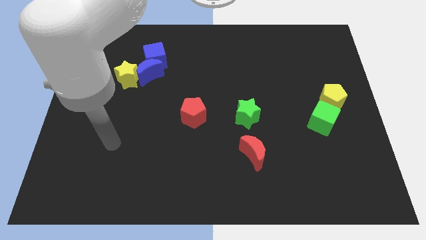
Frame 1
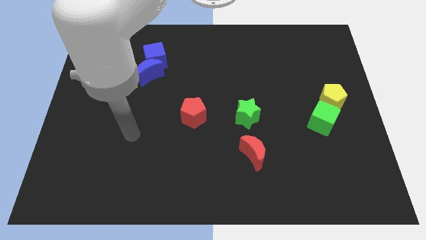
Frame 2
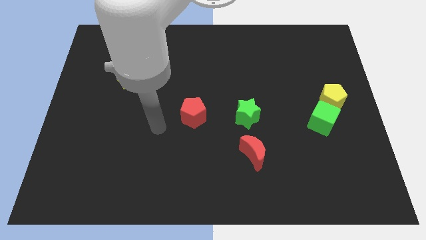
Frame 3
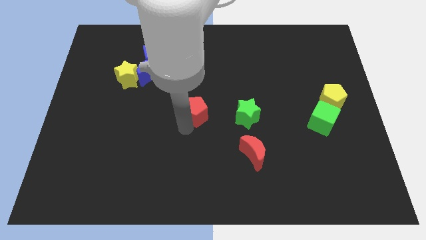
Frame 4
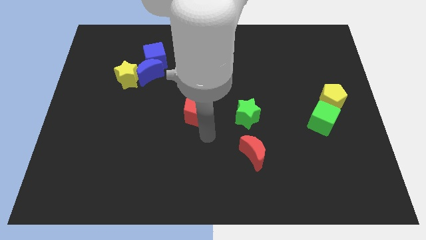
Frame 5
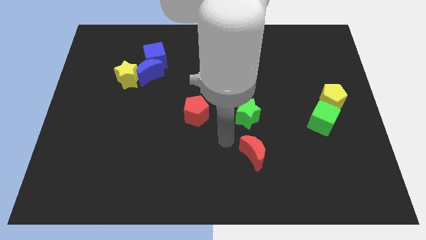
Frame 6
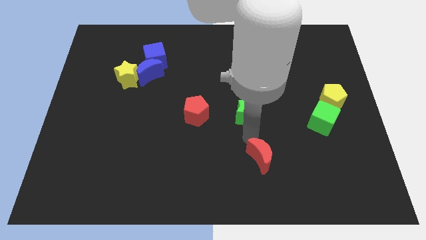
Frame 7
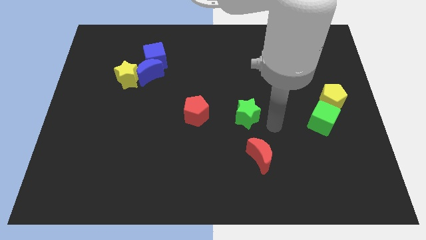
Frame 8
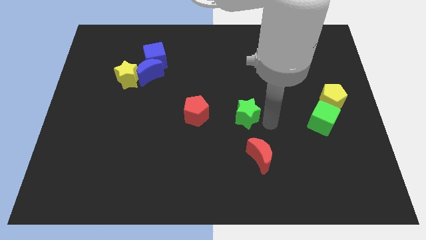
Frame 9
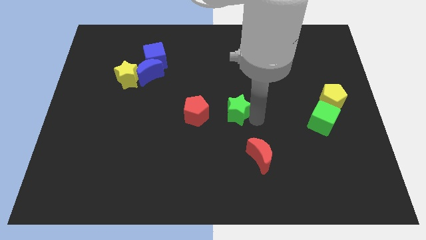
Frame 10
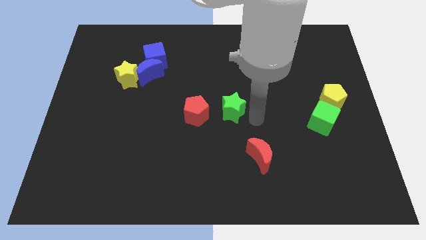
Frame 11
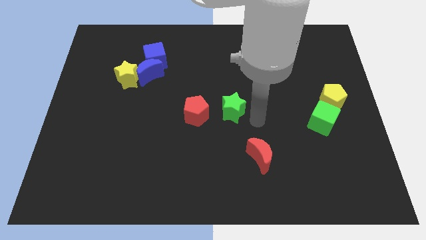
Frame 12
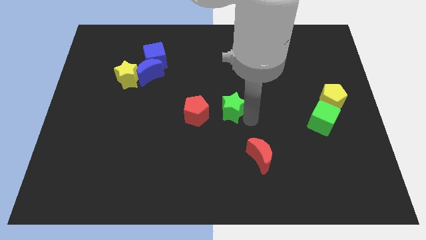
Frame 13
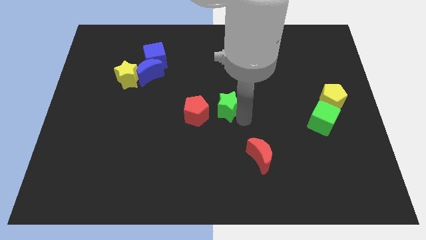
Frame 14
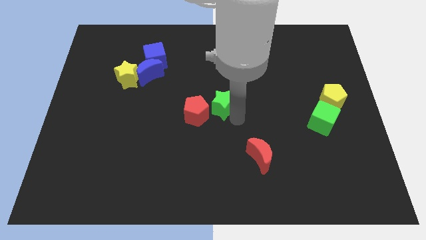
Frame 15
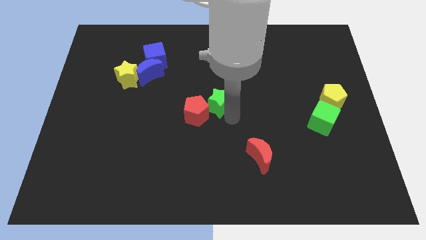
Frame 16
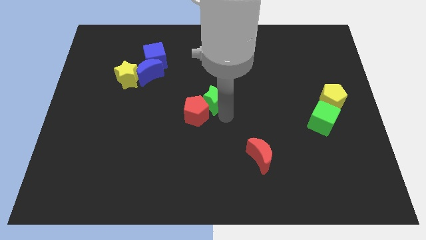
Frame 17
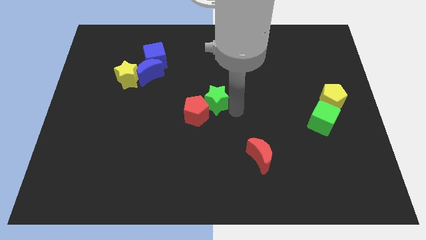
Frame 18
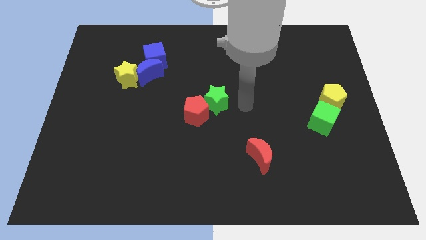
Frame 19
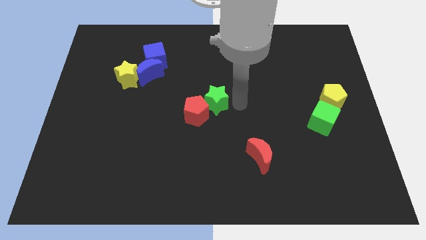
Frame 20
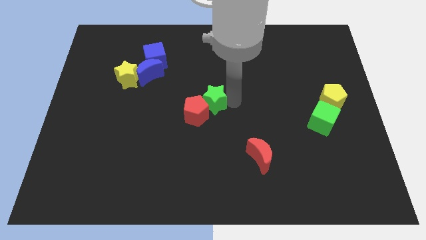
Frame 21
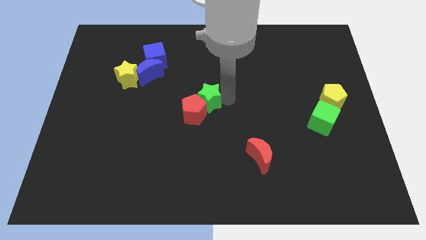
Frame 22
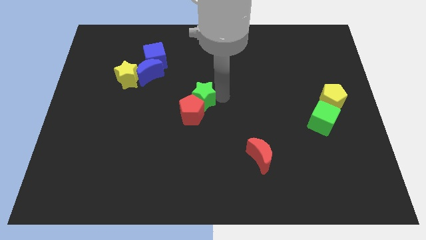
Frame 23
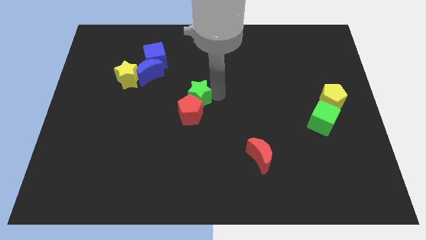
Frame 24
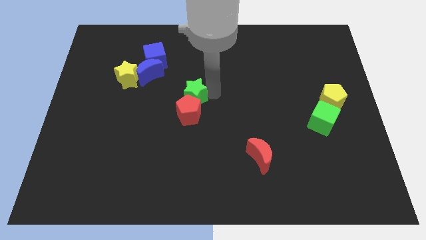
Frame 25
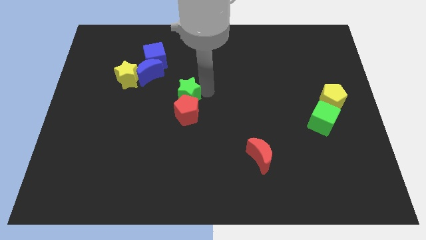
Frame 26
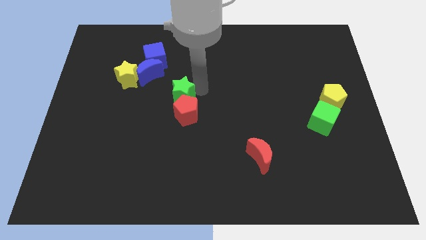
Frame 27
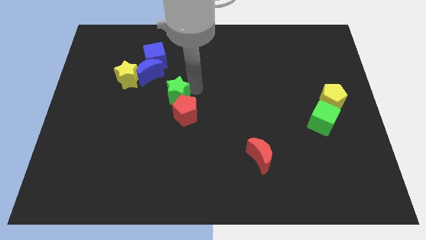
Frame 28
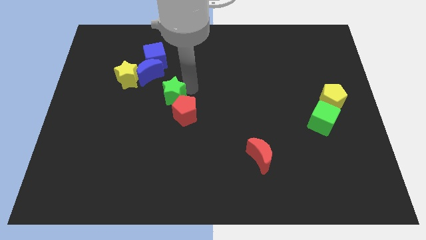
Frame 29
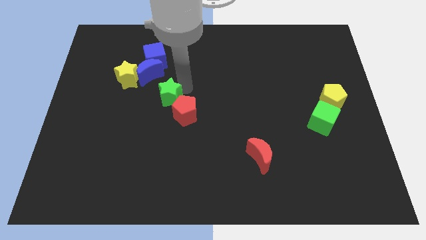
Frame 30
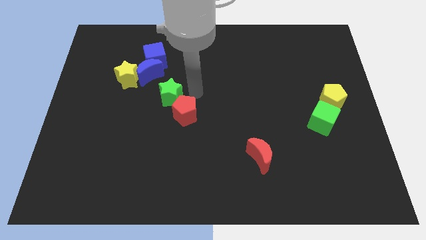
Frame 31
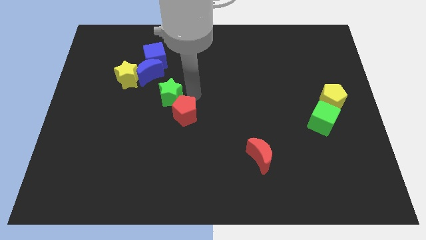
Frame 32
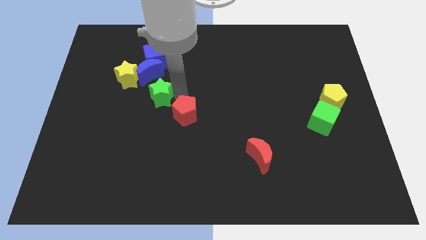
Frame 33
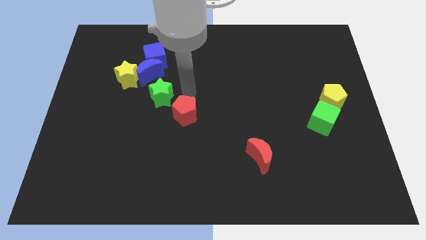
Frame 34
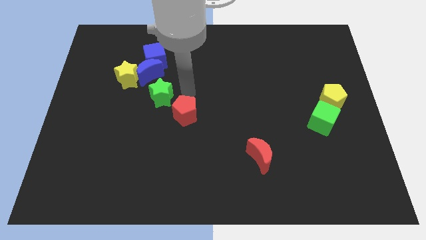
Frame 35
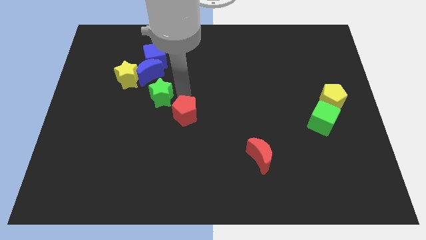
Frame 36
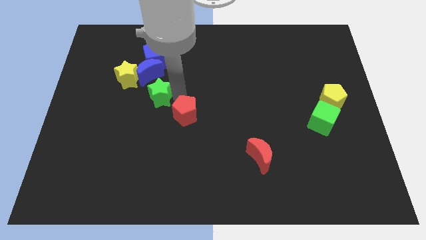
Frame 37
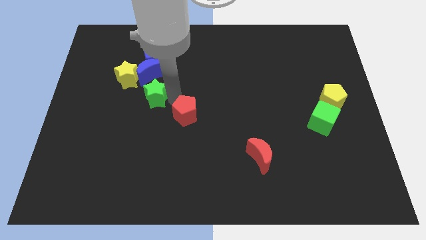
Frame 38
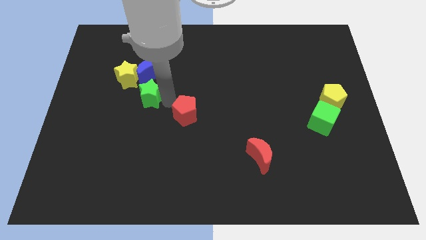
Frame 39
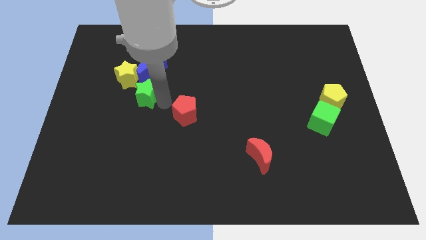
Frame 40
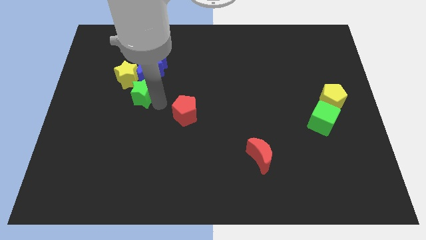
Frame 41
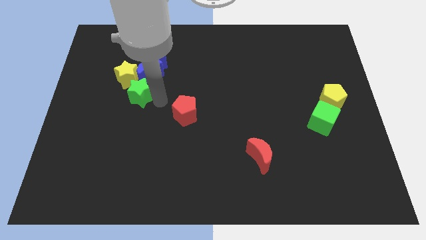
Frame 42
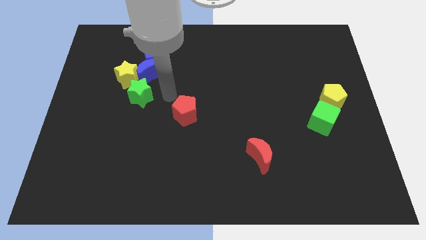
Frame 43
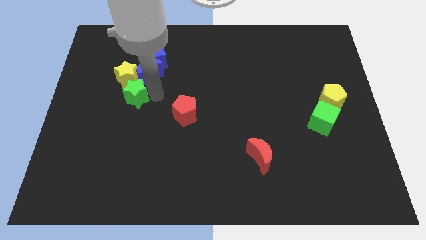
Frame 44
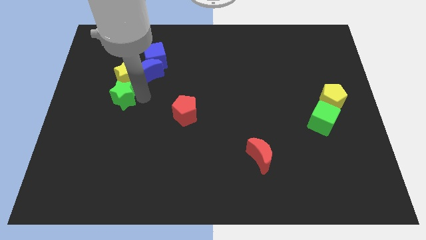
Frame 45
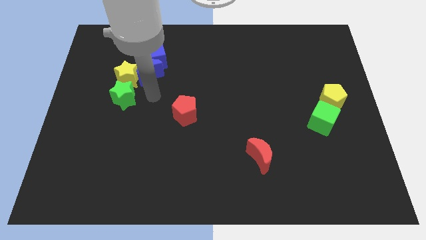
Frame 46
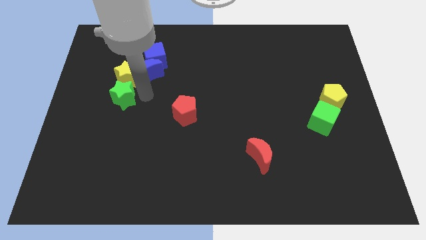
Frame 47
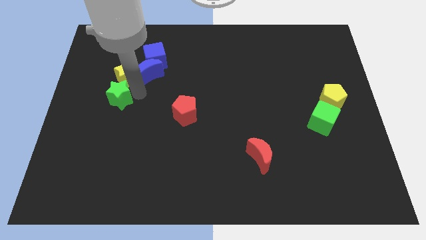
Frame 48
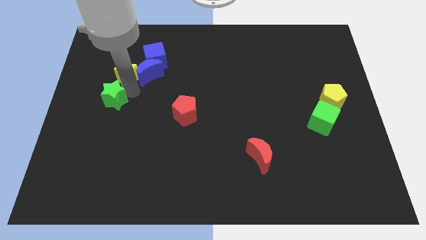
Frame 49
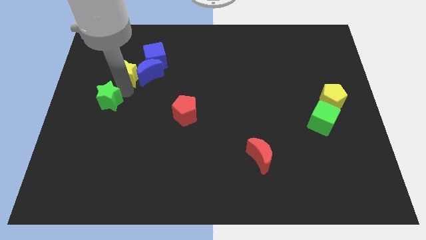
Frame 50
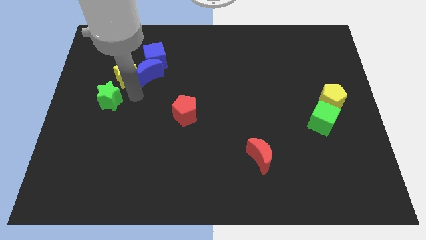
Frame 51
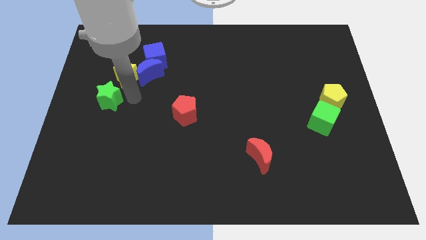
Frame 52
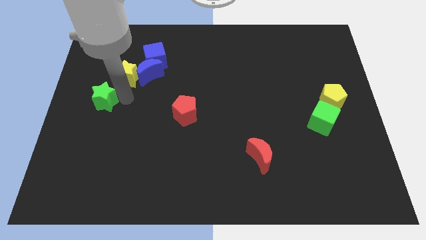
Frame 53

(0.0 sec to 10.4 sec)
move the green star to the center left

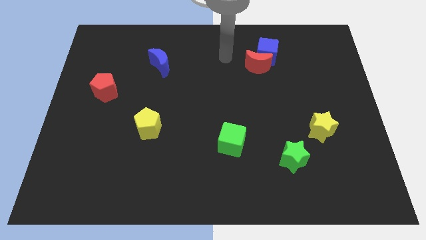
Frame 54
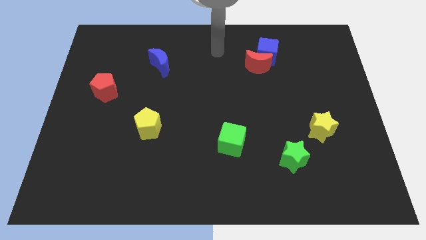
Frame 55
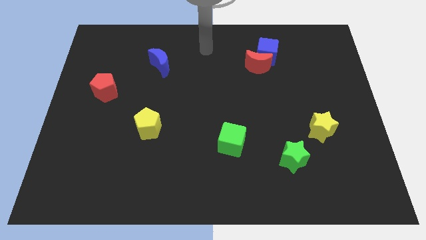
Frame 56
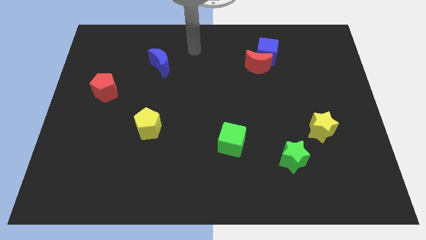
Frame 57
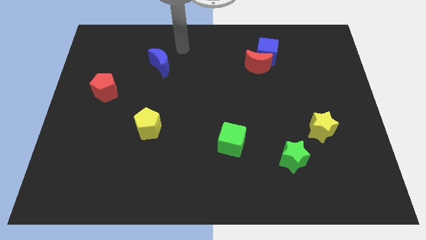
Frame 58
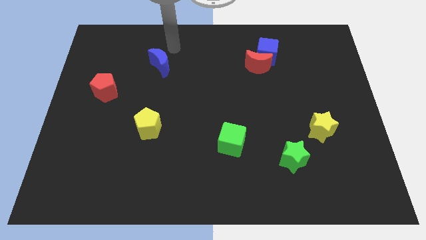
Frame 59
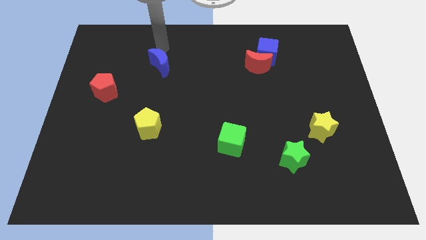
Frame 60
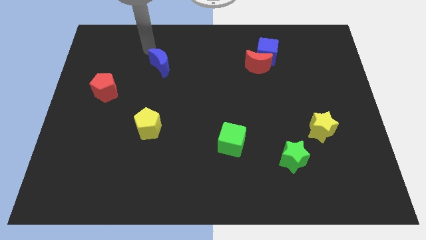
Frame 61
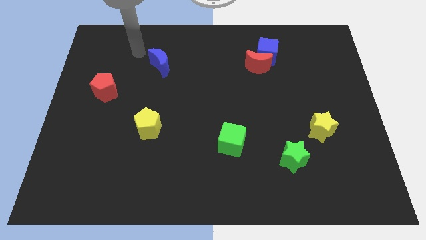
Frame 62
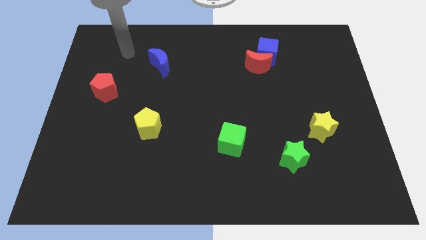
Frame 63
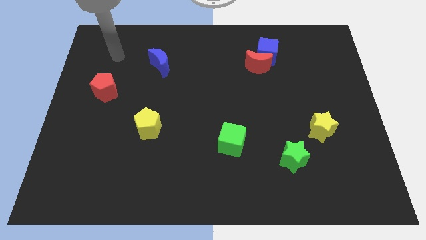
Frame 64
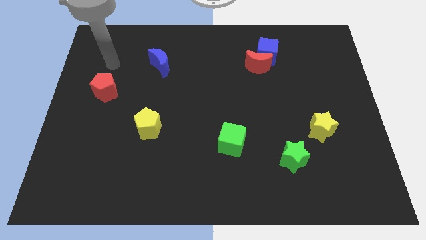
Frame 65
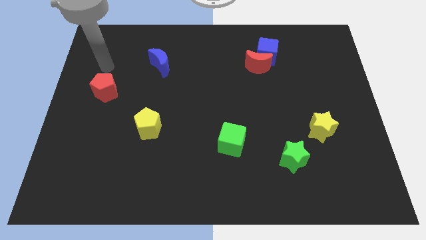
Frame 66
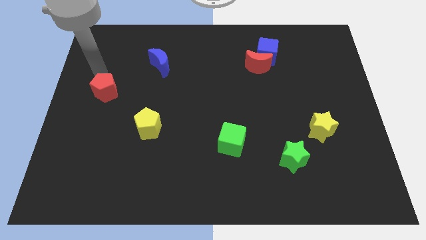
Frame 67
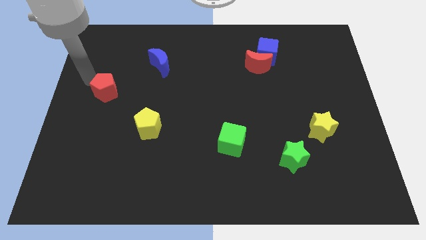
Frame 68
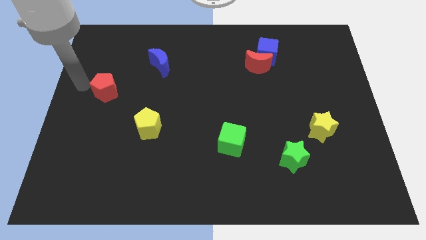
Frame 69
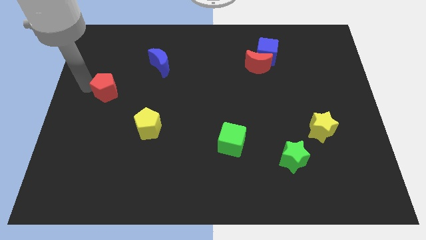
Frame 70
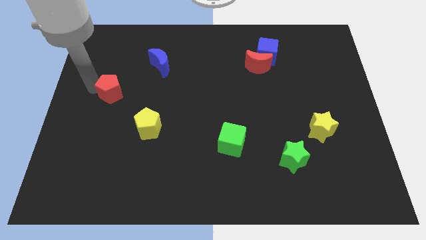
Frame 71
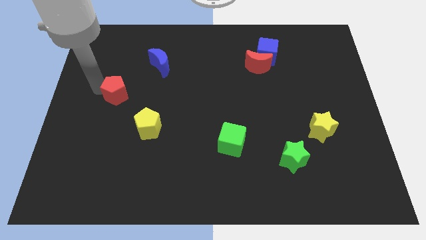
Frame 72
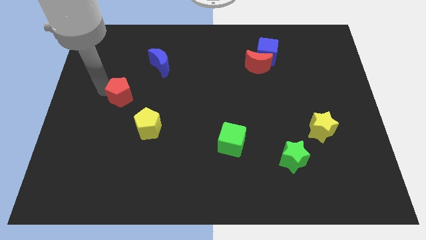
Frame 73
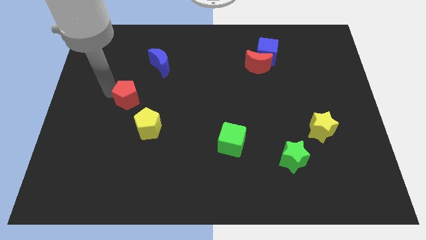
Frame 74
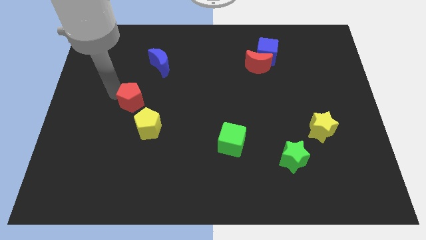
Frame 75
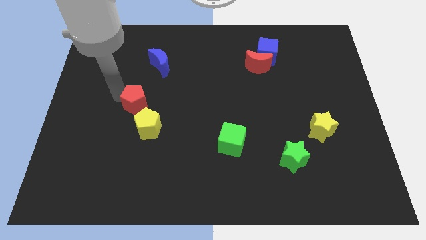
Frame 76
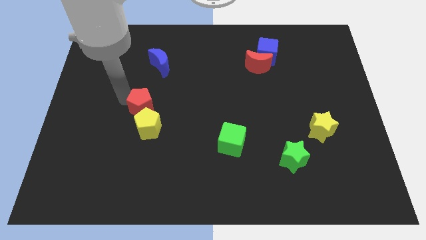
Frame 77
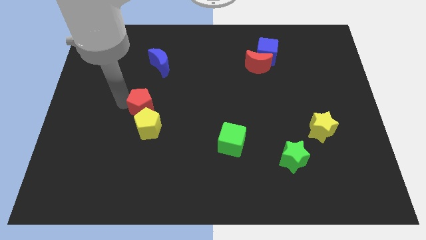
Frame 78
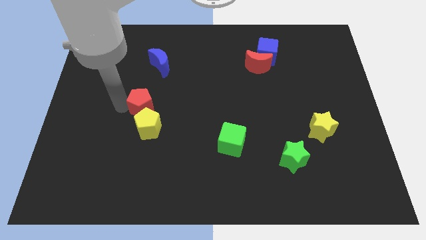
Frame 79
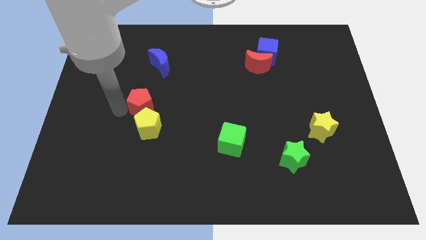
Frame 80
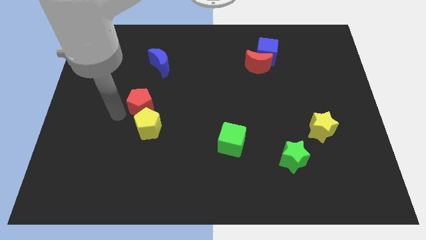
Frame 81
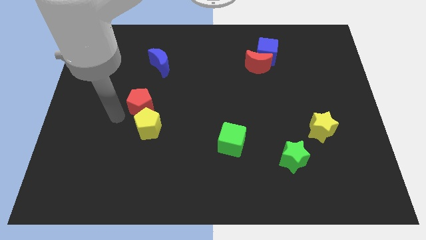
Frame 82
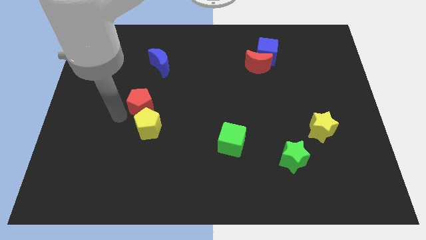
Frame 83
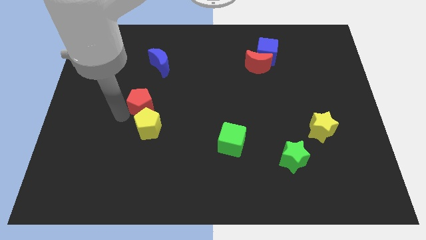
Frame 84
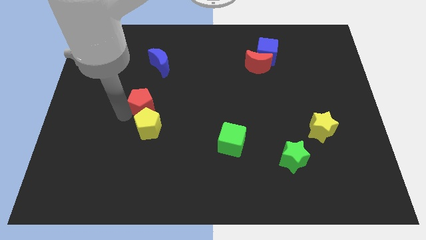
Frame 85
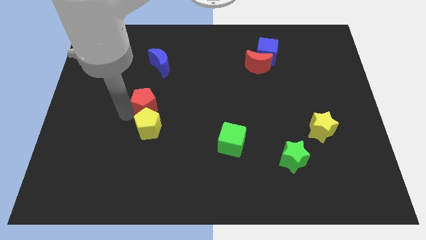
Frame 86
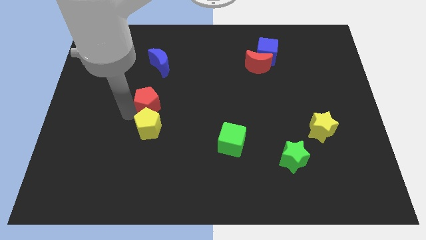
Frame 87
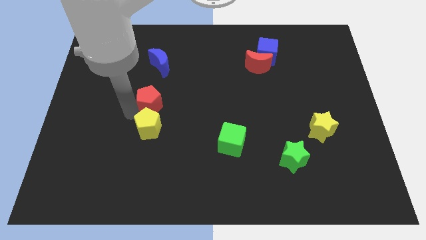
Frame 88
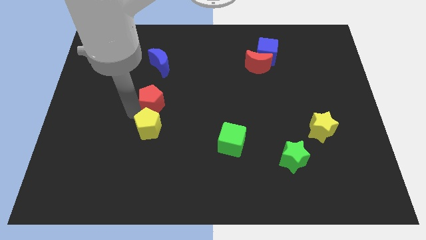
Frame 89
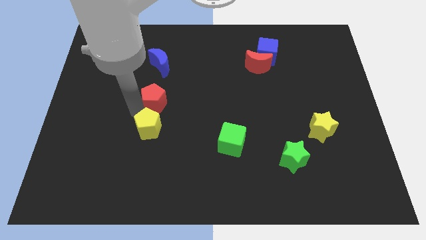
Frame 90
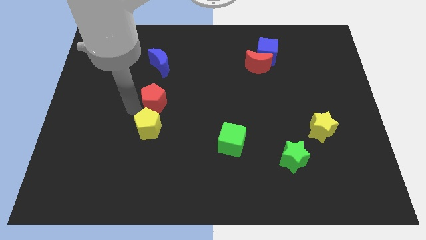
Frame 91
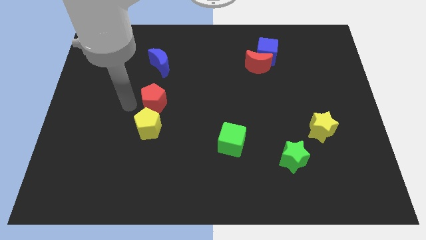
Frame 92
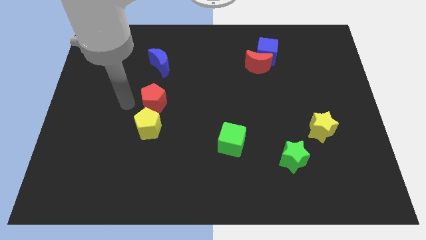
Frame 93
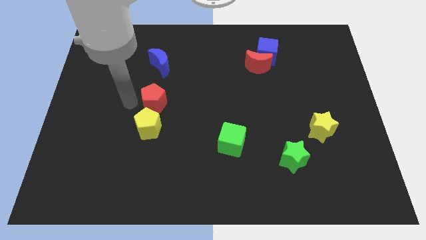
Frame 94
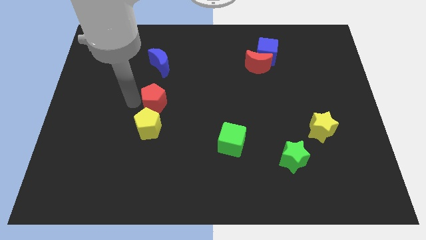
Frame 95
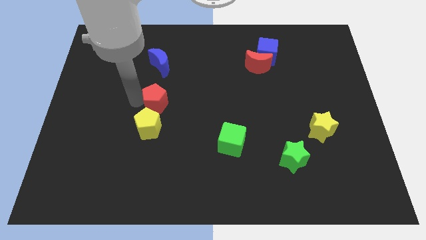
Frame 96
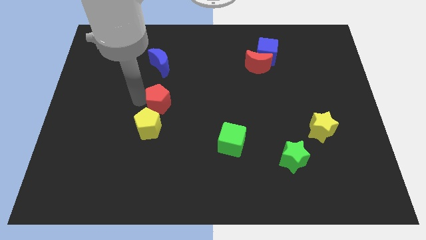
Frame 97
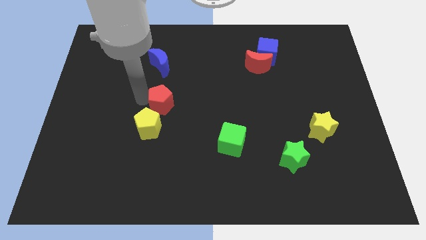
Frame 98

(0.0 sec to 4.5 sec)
put the red pentagon to the center
